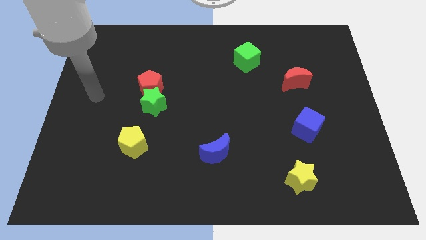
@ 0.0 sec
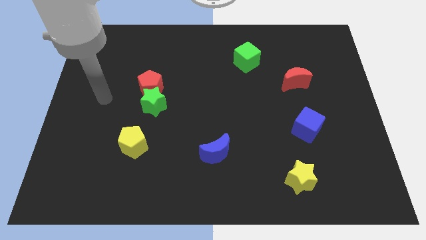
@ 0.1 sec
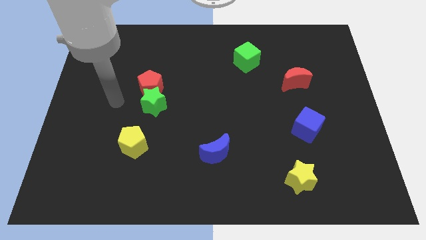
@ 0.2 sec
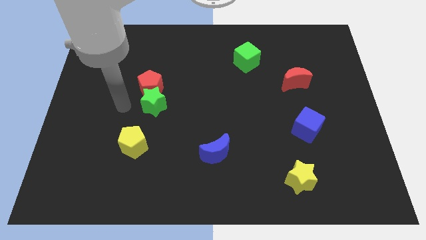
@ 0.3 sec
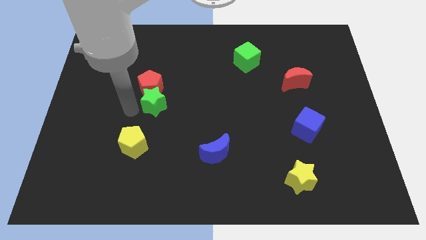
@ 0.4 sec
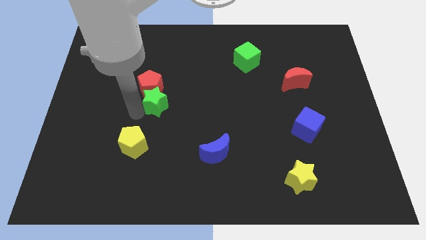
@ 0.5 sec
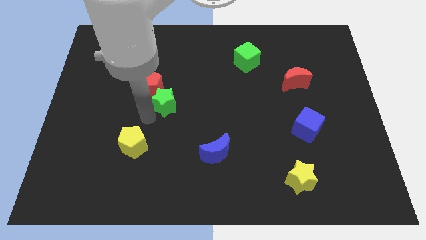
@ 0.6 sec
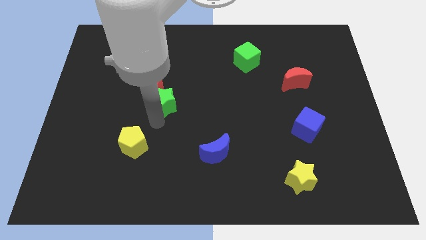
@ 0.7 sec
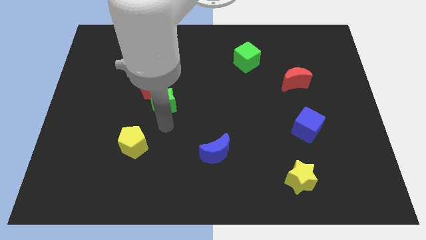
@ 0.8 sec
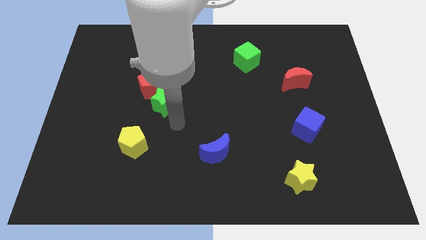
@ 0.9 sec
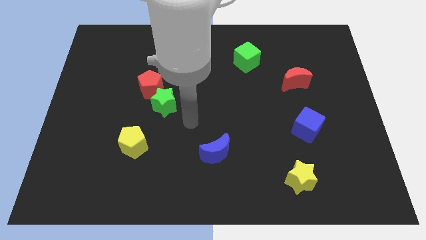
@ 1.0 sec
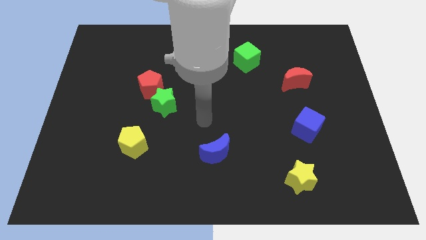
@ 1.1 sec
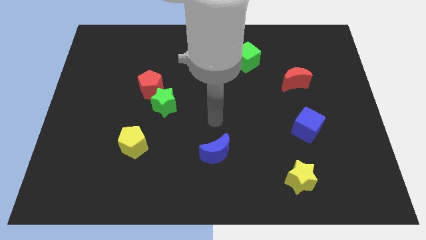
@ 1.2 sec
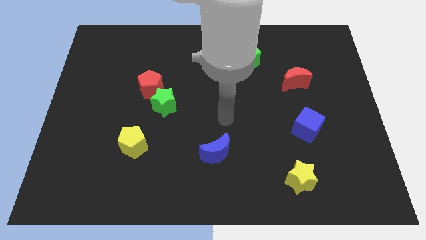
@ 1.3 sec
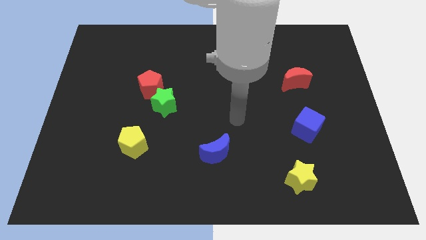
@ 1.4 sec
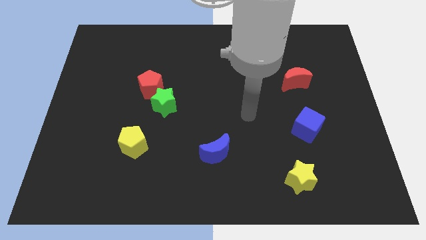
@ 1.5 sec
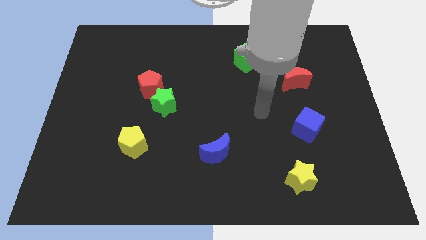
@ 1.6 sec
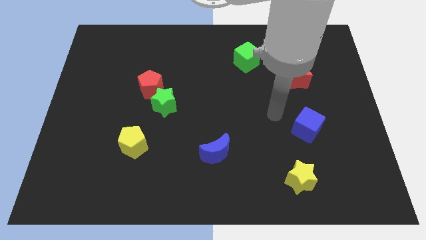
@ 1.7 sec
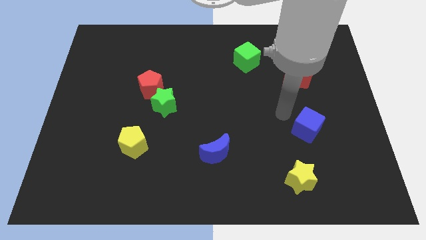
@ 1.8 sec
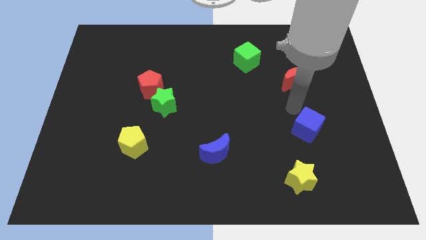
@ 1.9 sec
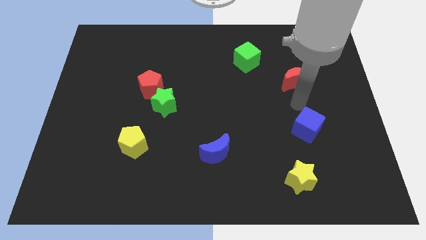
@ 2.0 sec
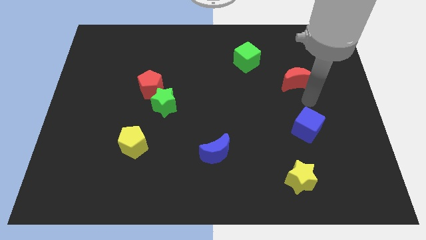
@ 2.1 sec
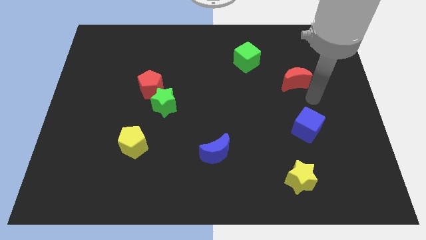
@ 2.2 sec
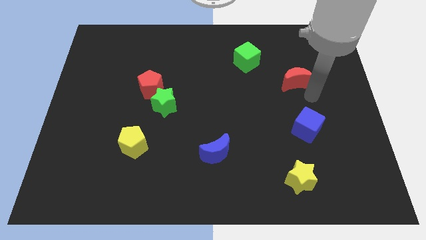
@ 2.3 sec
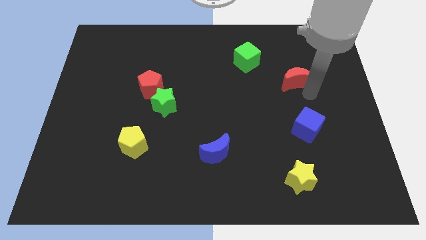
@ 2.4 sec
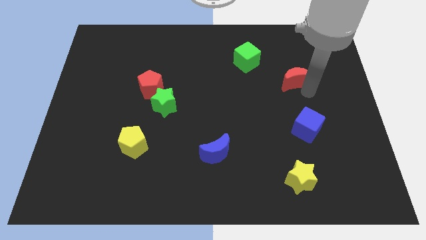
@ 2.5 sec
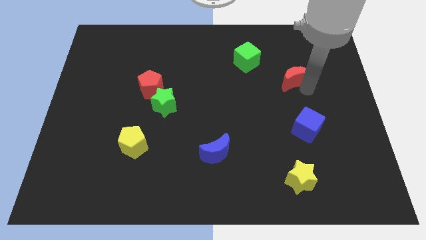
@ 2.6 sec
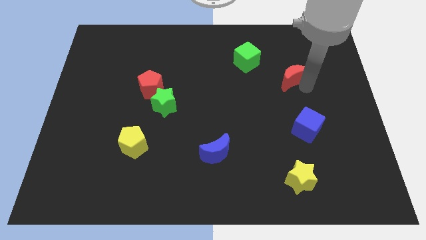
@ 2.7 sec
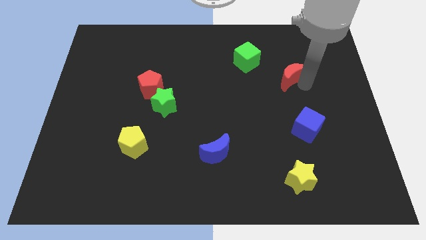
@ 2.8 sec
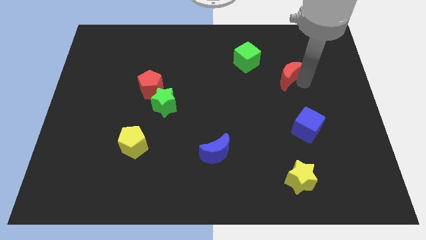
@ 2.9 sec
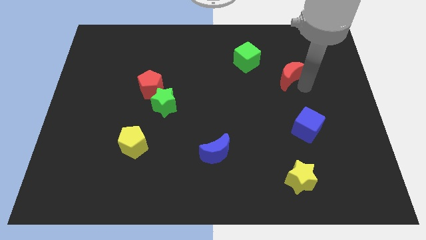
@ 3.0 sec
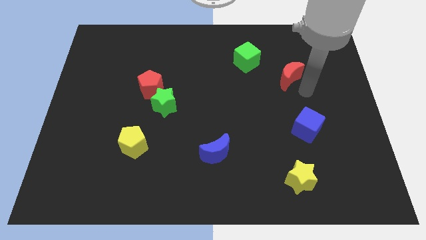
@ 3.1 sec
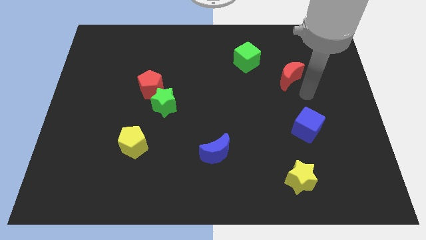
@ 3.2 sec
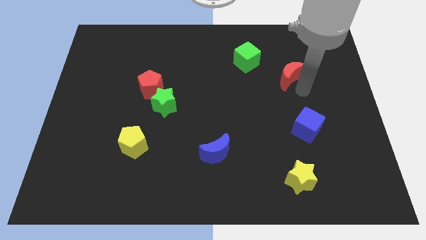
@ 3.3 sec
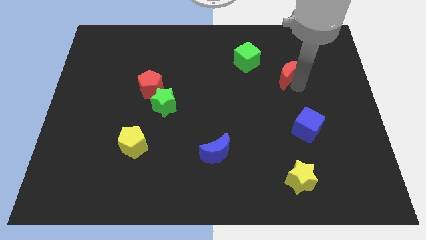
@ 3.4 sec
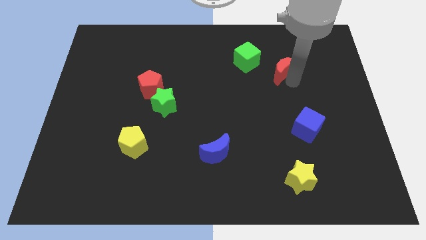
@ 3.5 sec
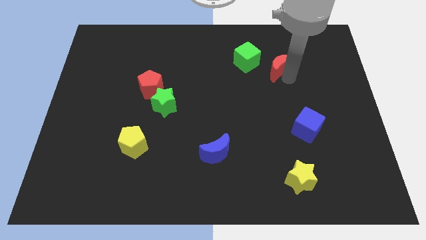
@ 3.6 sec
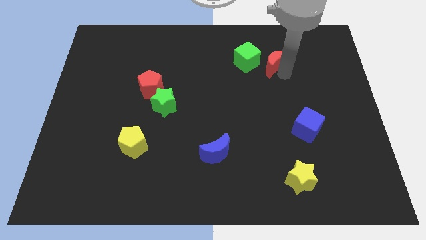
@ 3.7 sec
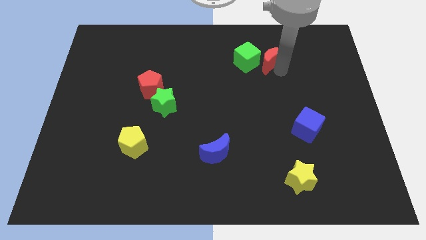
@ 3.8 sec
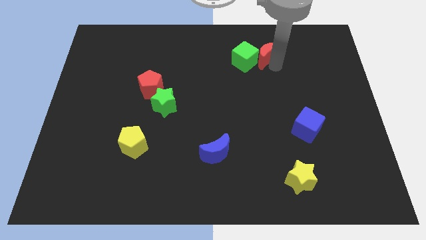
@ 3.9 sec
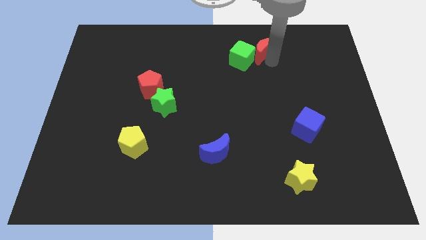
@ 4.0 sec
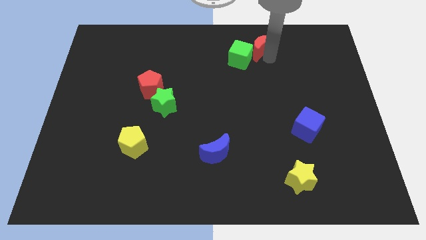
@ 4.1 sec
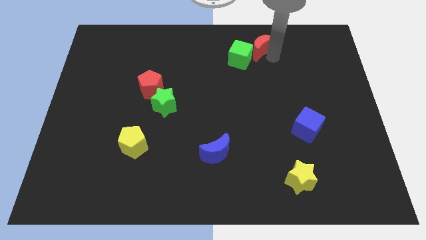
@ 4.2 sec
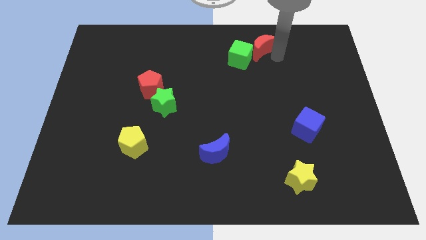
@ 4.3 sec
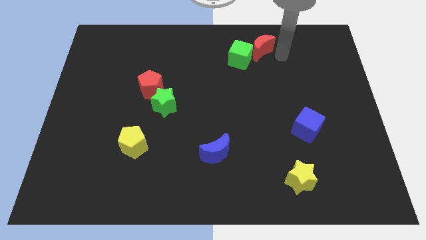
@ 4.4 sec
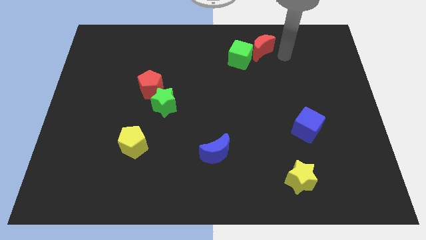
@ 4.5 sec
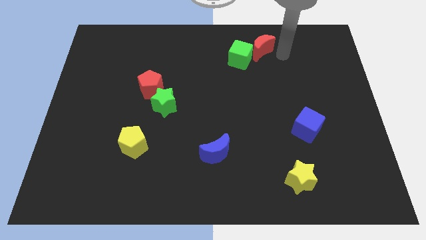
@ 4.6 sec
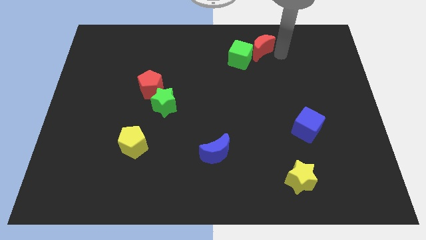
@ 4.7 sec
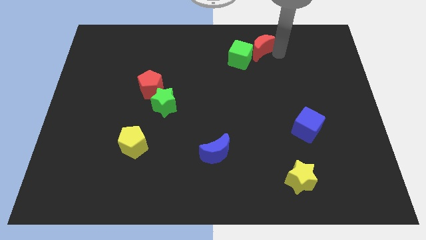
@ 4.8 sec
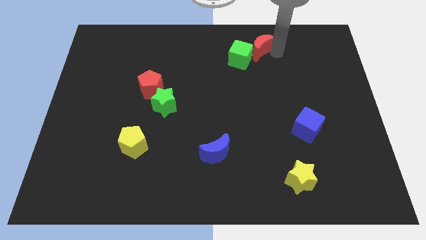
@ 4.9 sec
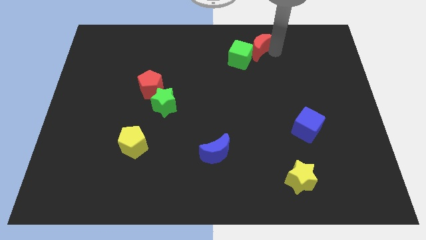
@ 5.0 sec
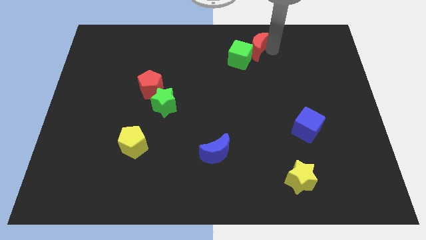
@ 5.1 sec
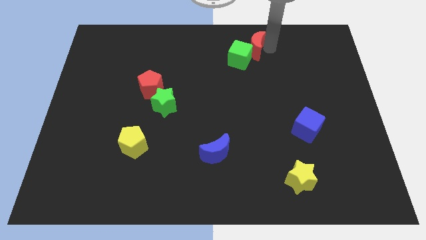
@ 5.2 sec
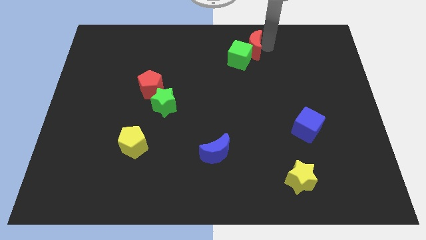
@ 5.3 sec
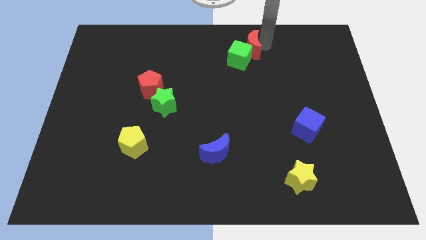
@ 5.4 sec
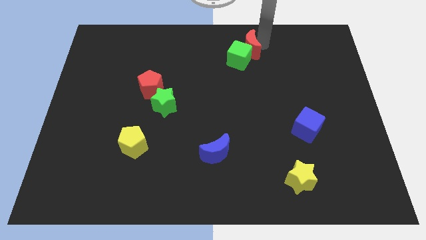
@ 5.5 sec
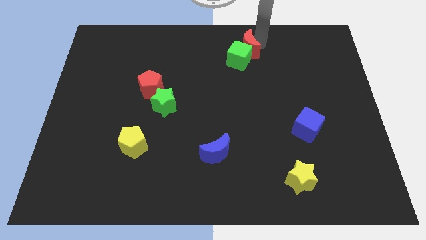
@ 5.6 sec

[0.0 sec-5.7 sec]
push the red moon to the top
